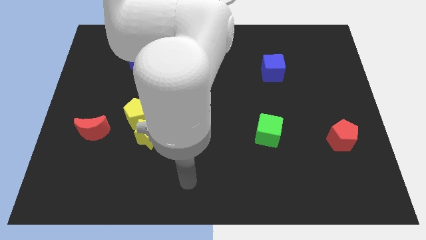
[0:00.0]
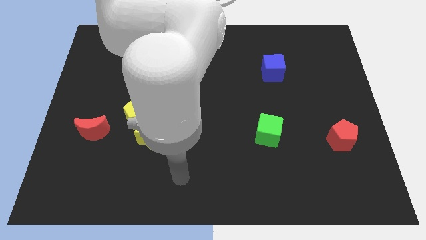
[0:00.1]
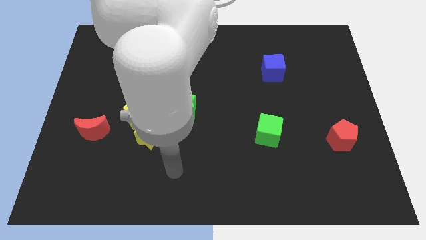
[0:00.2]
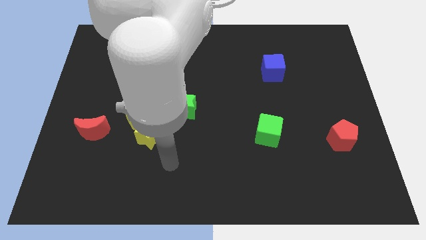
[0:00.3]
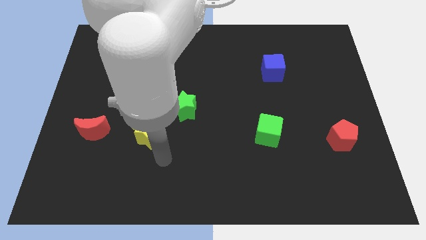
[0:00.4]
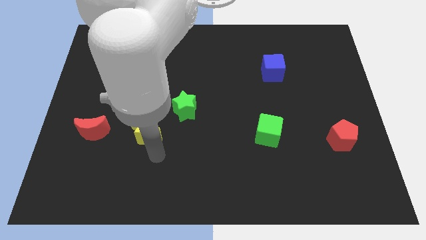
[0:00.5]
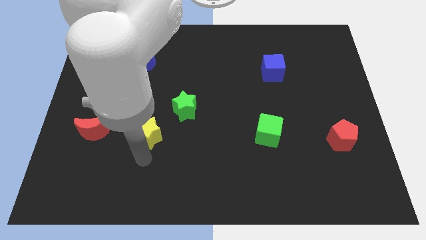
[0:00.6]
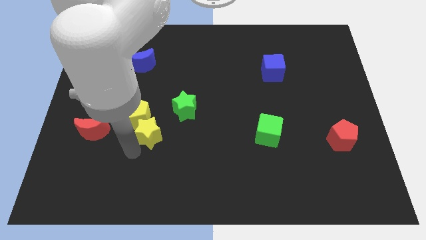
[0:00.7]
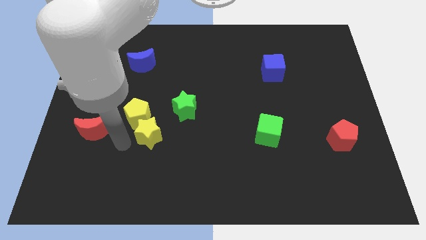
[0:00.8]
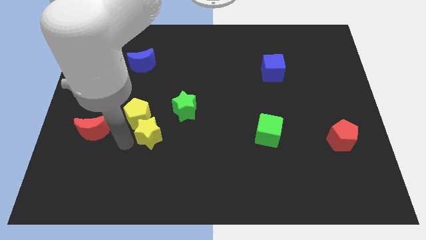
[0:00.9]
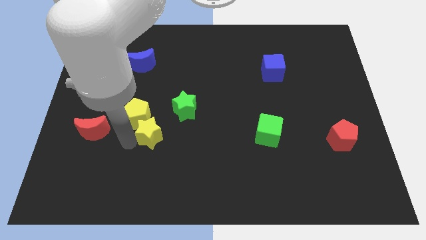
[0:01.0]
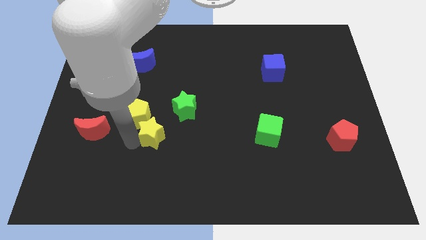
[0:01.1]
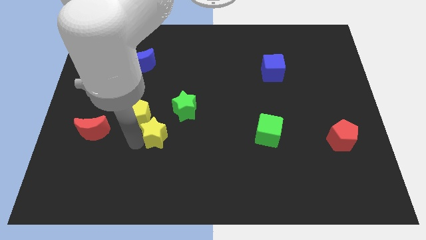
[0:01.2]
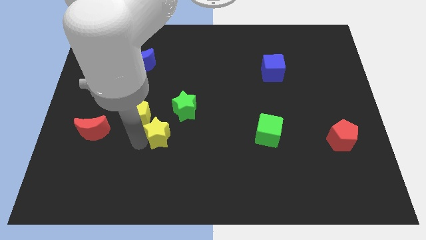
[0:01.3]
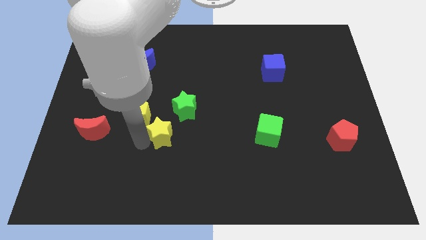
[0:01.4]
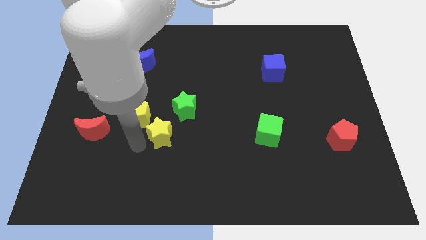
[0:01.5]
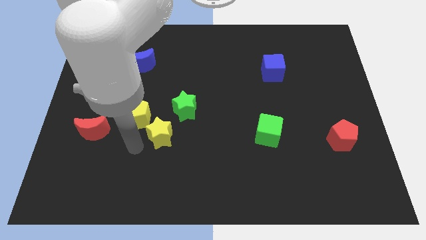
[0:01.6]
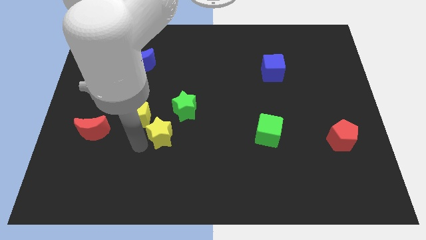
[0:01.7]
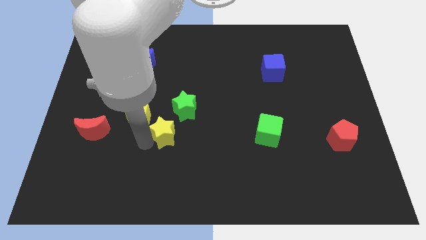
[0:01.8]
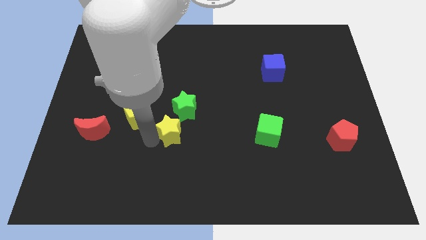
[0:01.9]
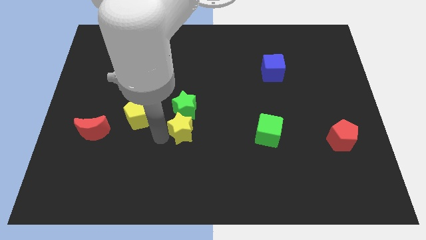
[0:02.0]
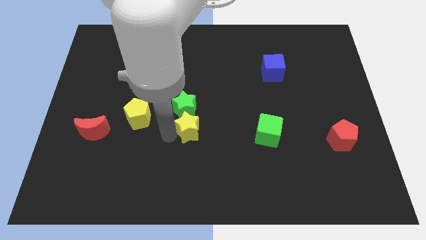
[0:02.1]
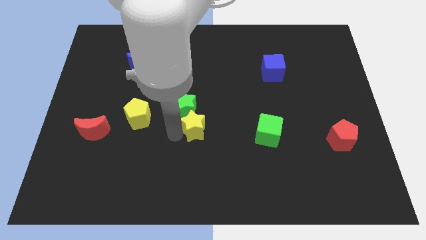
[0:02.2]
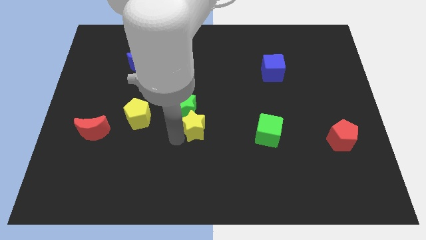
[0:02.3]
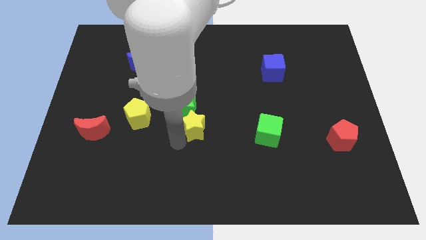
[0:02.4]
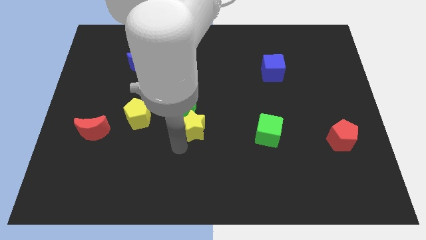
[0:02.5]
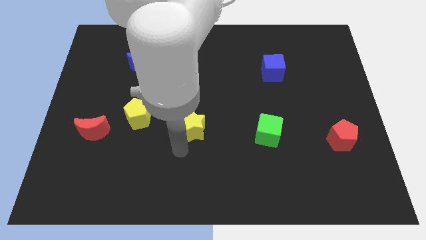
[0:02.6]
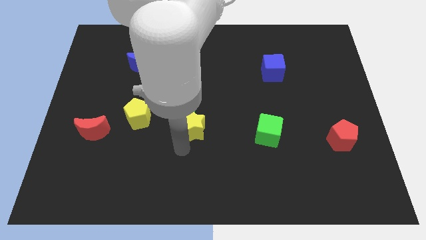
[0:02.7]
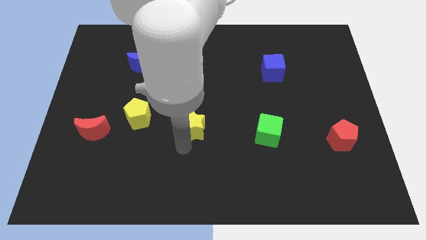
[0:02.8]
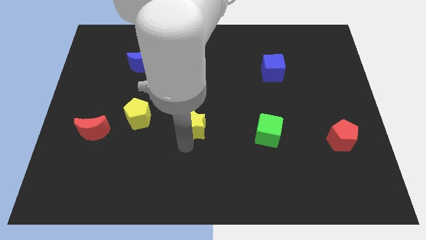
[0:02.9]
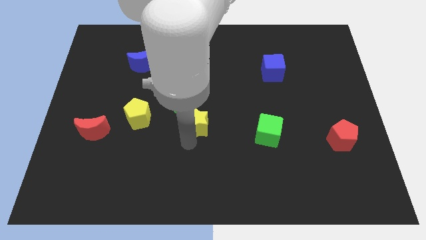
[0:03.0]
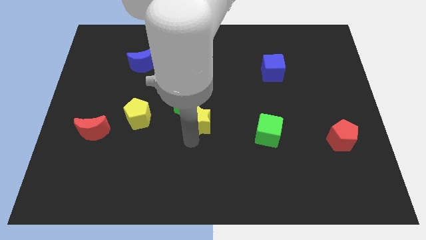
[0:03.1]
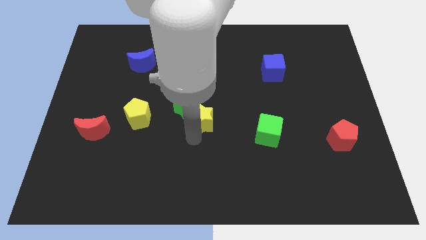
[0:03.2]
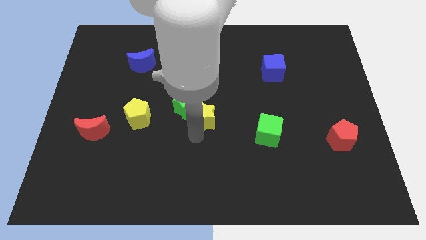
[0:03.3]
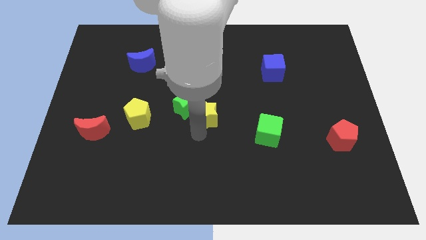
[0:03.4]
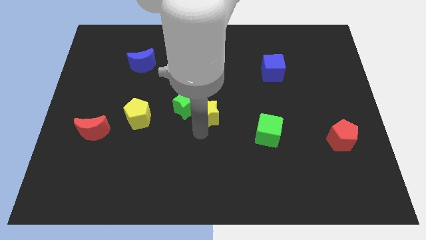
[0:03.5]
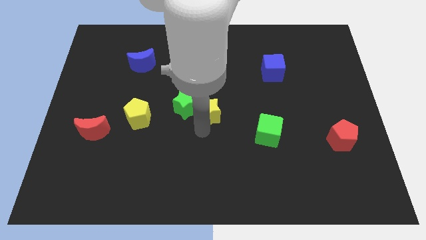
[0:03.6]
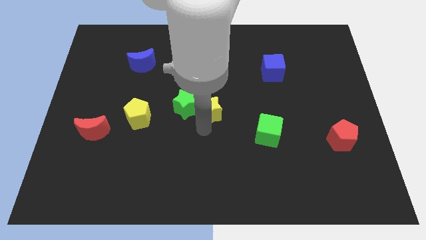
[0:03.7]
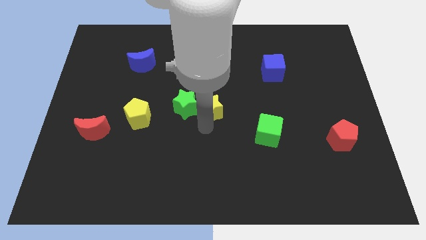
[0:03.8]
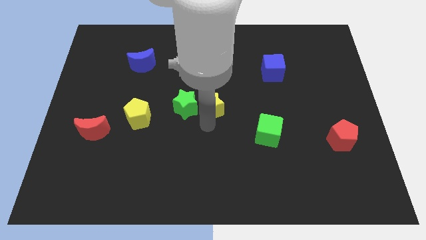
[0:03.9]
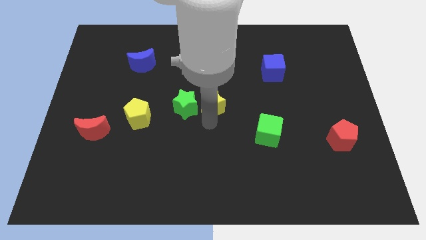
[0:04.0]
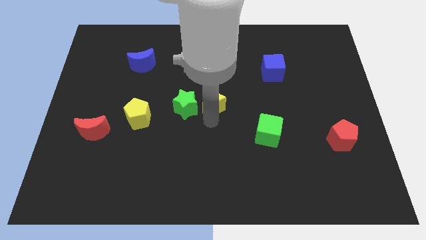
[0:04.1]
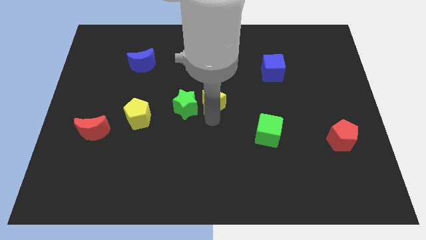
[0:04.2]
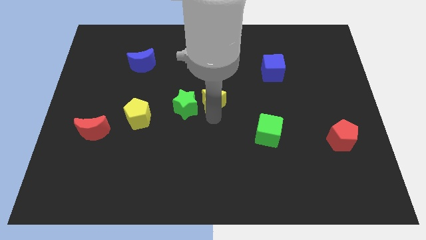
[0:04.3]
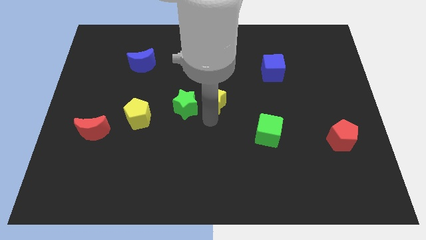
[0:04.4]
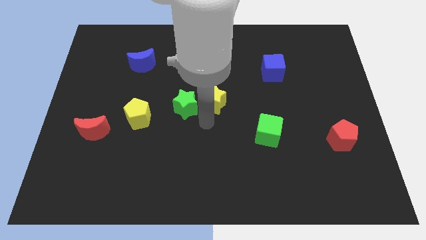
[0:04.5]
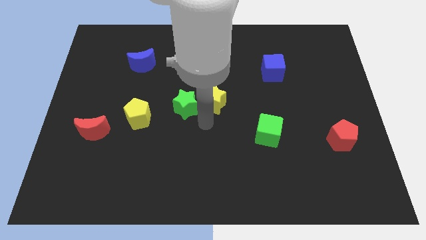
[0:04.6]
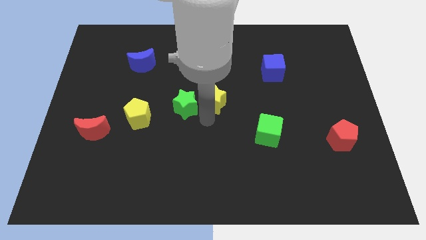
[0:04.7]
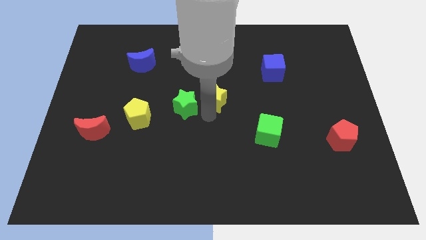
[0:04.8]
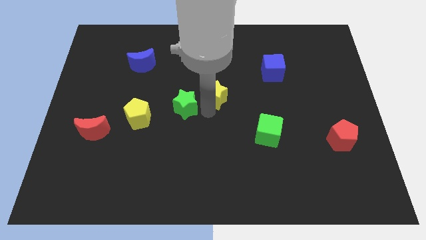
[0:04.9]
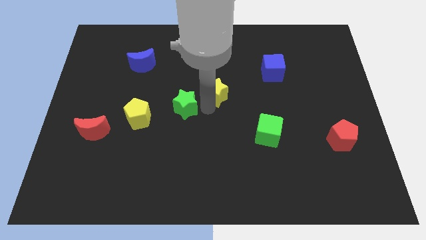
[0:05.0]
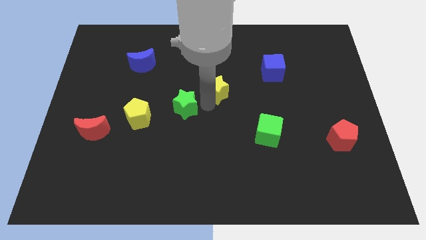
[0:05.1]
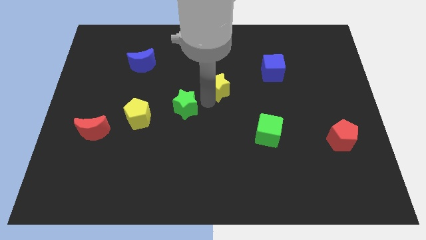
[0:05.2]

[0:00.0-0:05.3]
slide the yellow star upwards and right diagonally

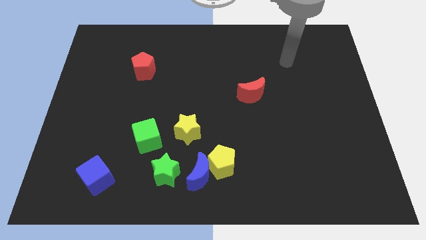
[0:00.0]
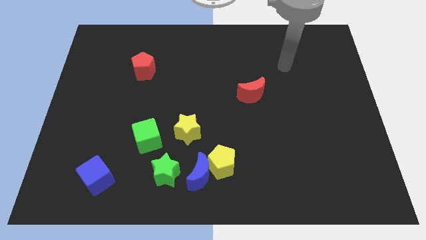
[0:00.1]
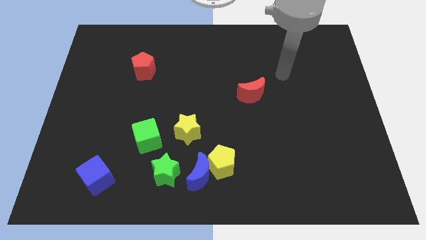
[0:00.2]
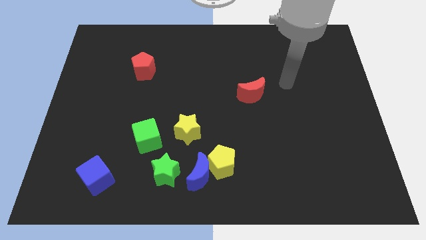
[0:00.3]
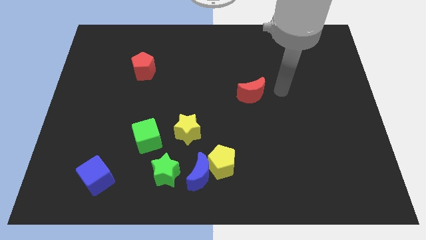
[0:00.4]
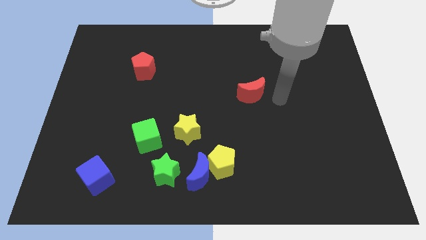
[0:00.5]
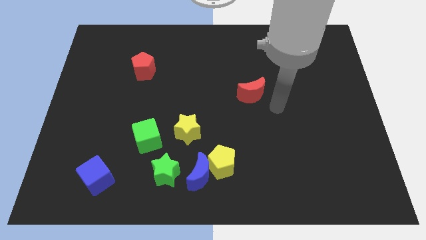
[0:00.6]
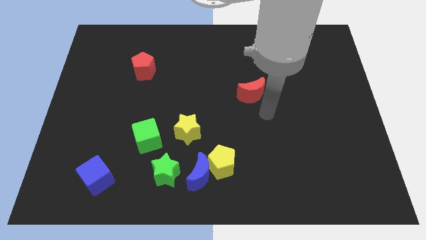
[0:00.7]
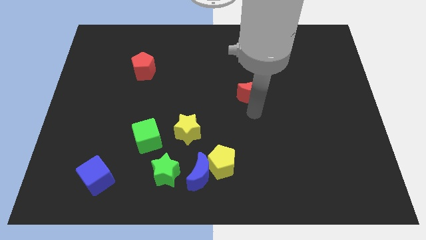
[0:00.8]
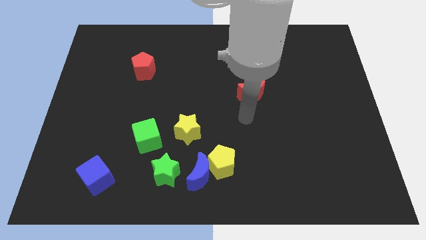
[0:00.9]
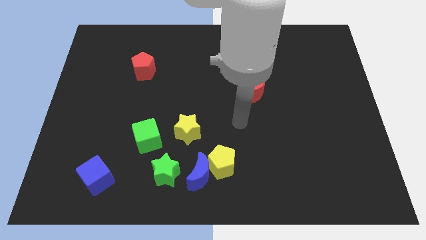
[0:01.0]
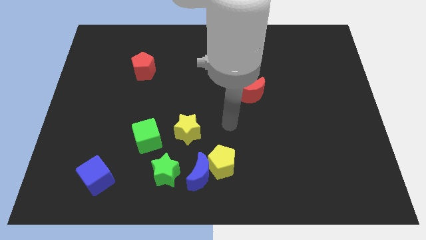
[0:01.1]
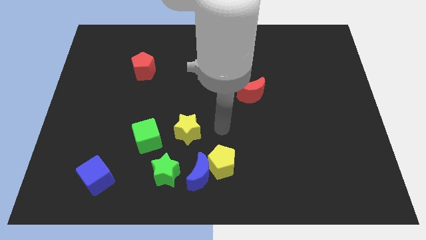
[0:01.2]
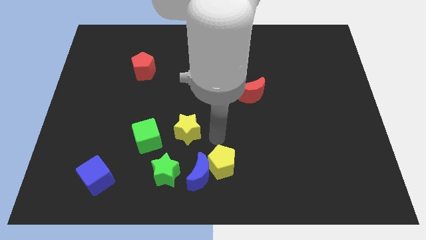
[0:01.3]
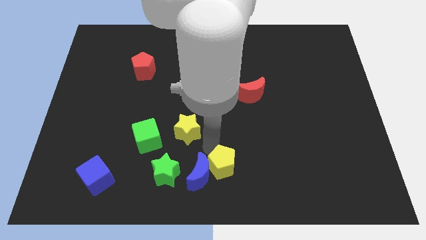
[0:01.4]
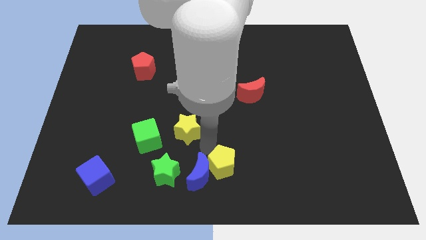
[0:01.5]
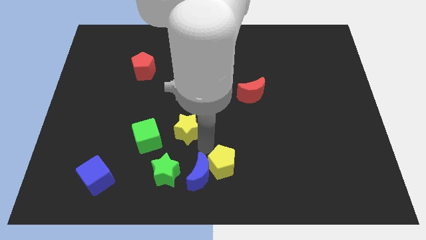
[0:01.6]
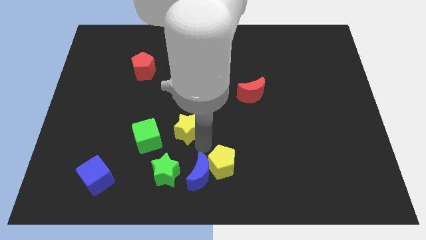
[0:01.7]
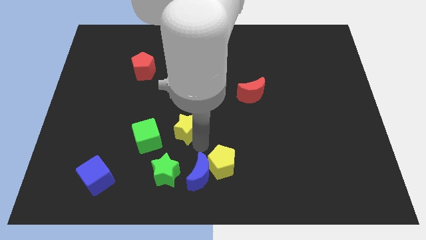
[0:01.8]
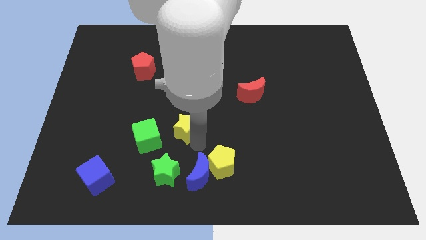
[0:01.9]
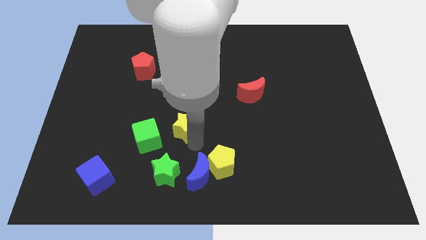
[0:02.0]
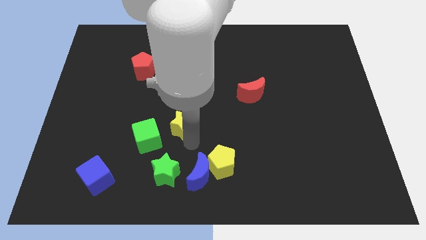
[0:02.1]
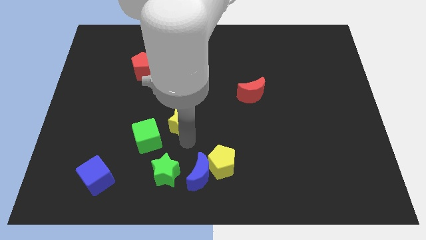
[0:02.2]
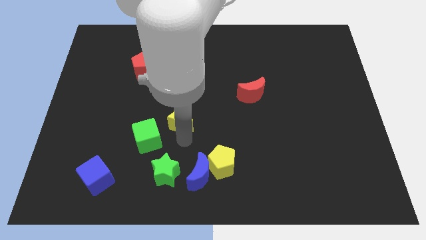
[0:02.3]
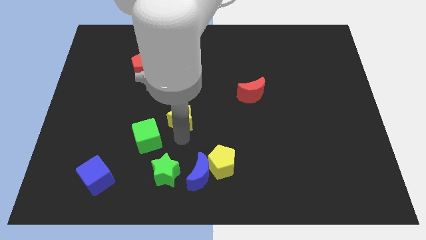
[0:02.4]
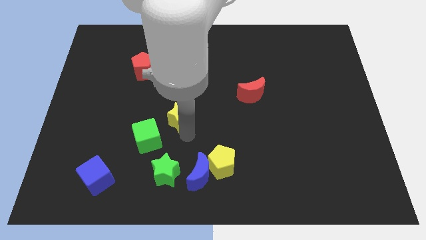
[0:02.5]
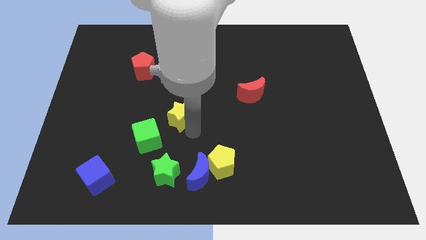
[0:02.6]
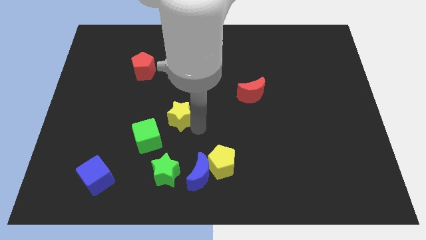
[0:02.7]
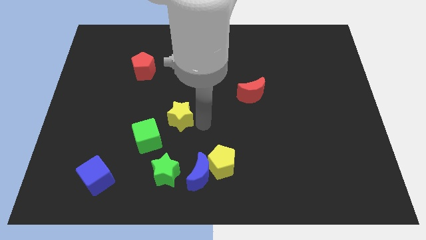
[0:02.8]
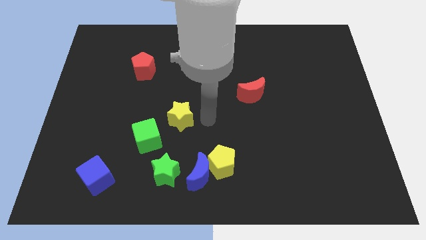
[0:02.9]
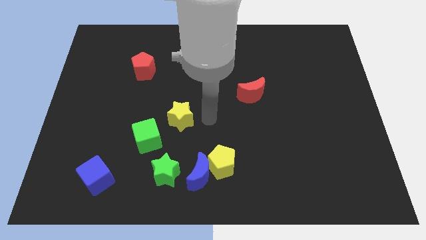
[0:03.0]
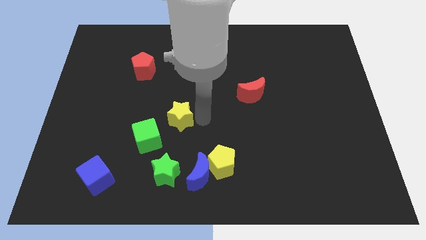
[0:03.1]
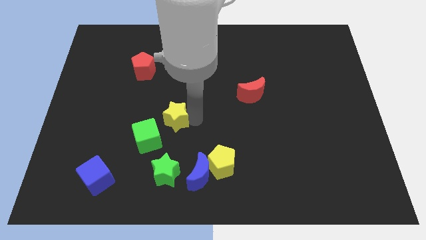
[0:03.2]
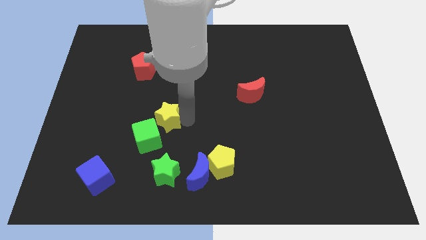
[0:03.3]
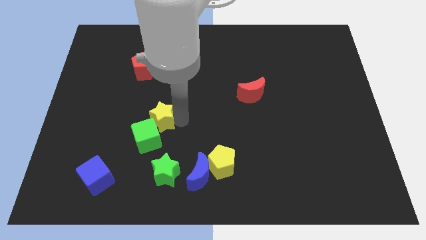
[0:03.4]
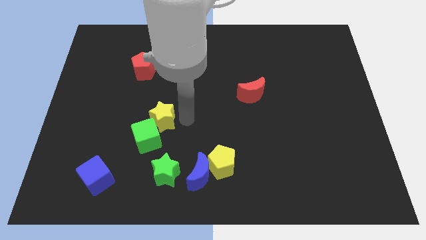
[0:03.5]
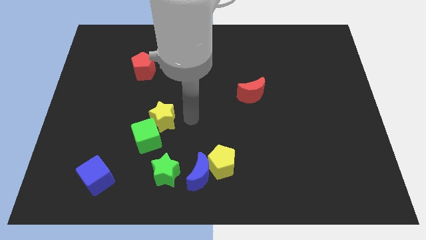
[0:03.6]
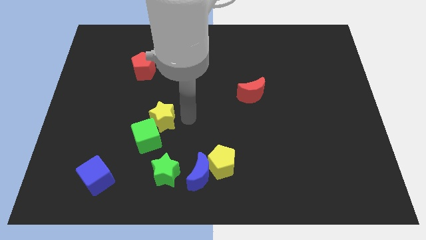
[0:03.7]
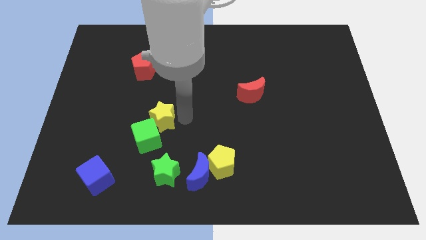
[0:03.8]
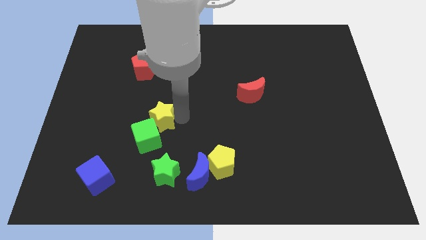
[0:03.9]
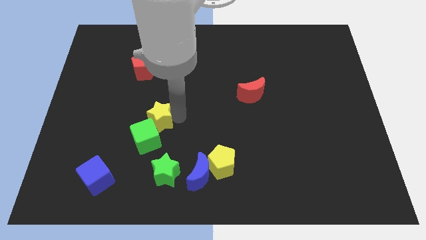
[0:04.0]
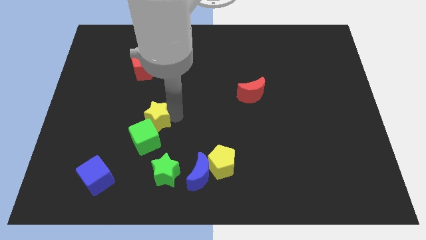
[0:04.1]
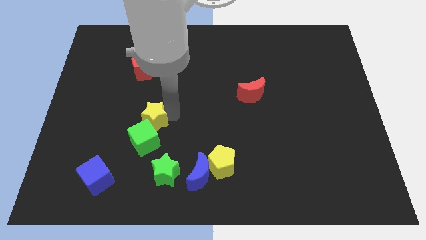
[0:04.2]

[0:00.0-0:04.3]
move the yellow star a little left
